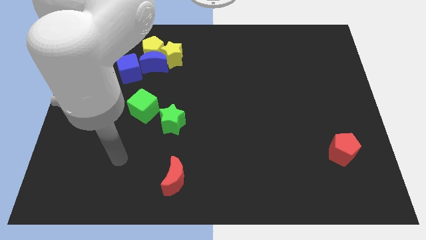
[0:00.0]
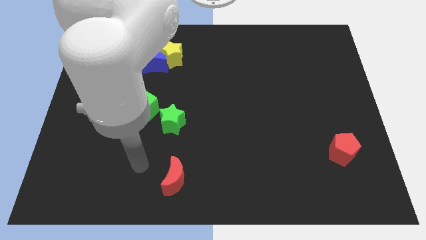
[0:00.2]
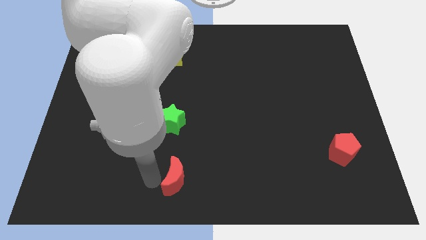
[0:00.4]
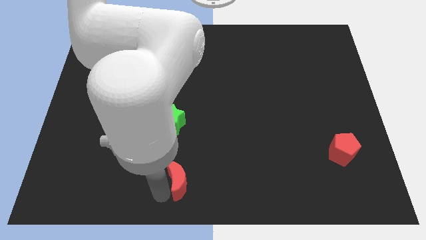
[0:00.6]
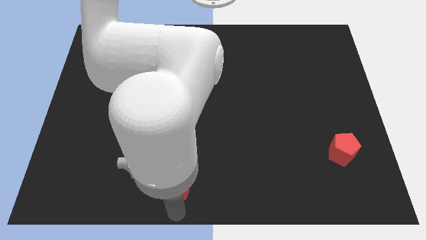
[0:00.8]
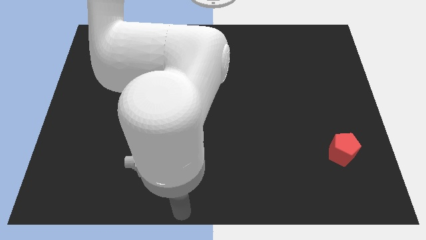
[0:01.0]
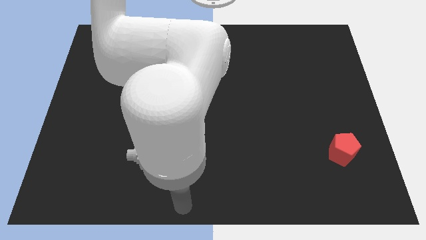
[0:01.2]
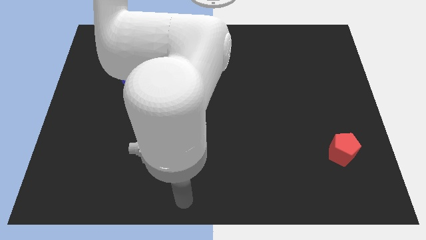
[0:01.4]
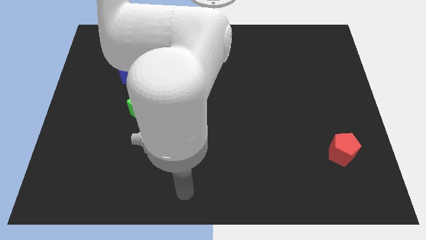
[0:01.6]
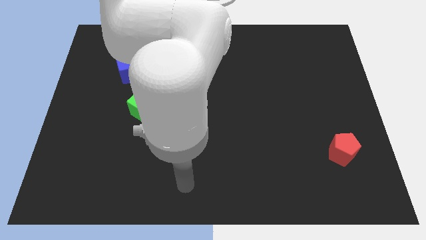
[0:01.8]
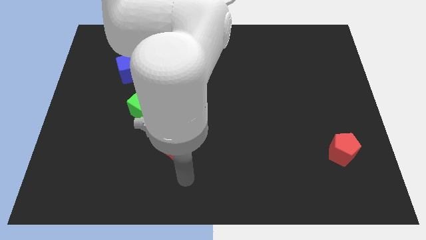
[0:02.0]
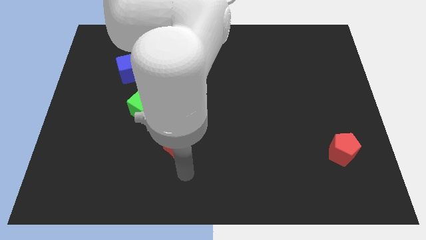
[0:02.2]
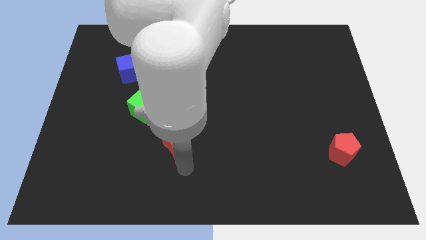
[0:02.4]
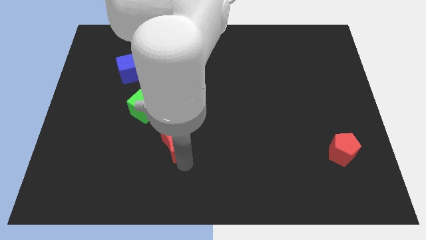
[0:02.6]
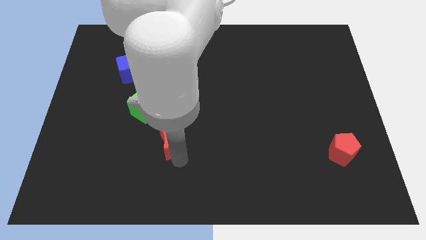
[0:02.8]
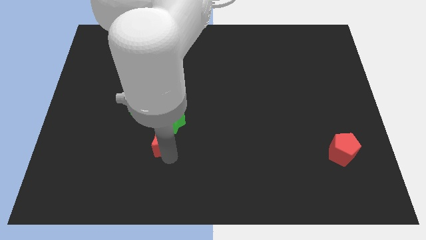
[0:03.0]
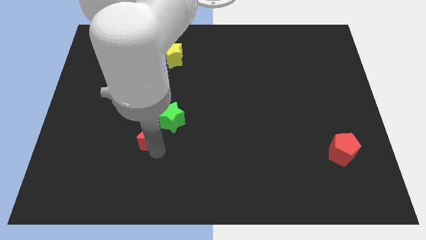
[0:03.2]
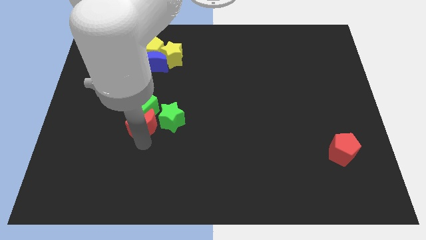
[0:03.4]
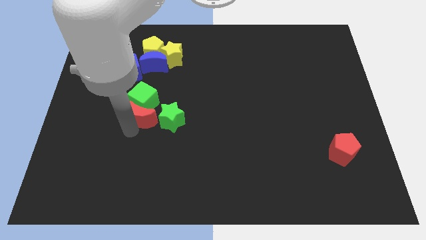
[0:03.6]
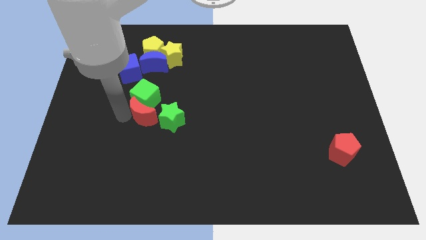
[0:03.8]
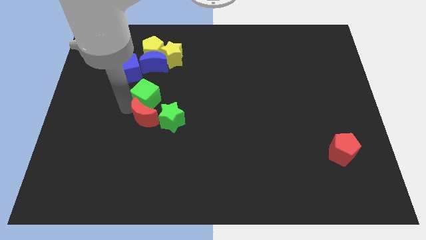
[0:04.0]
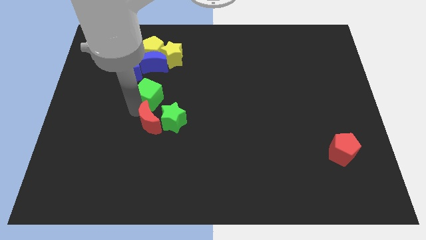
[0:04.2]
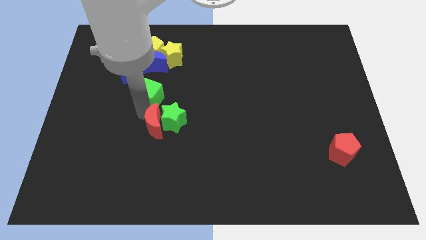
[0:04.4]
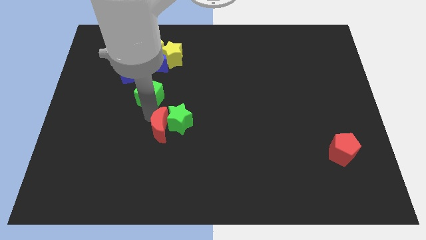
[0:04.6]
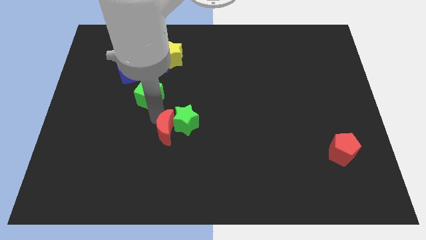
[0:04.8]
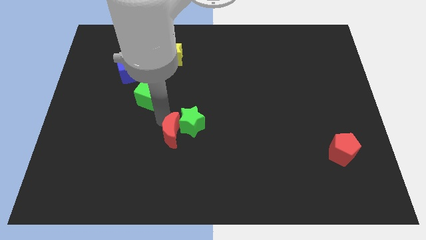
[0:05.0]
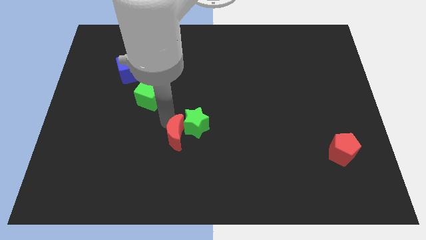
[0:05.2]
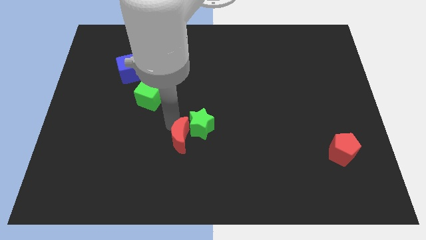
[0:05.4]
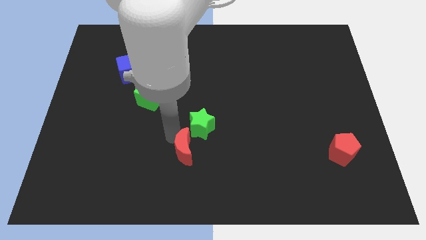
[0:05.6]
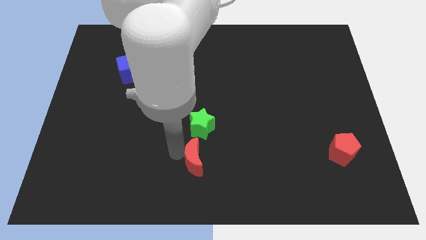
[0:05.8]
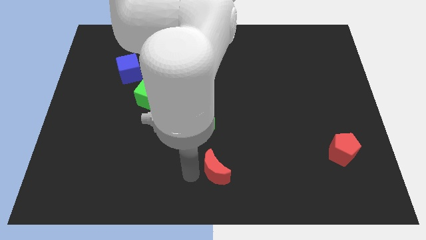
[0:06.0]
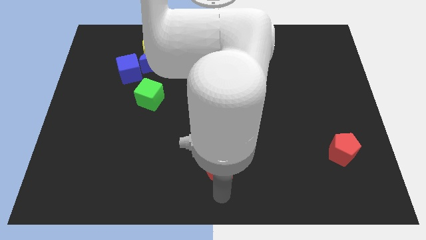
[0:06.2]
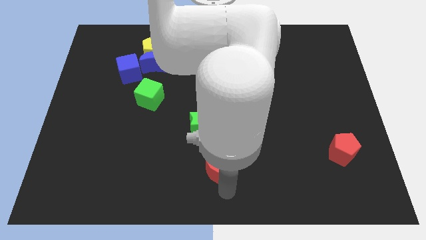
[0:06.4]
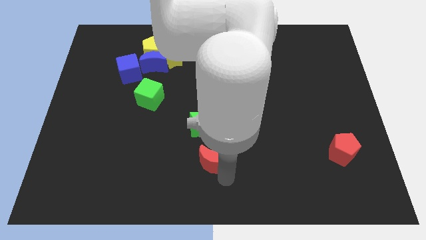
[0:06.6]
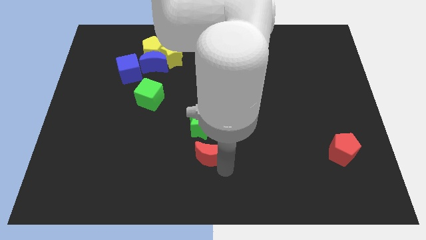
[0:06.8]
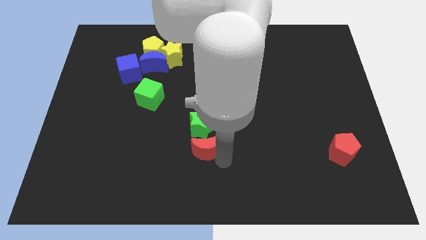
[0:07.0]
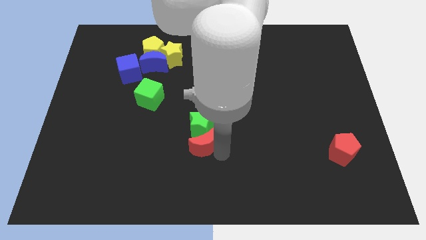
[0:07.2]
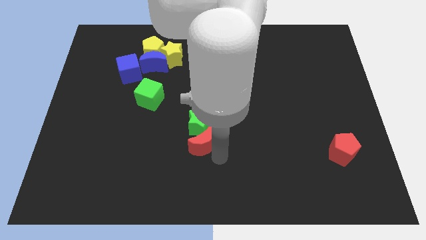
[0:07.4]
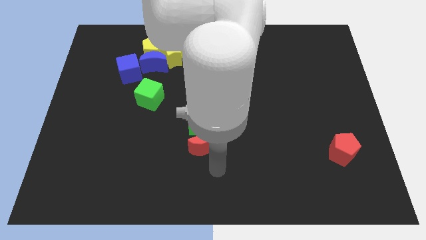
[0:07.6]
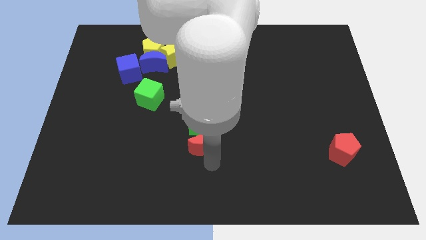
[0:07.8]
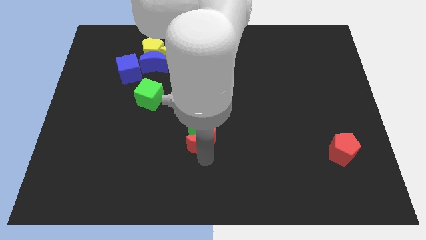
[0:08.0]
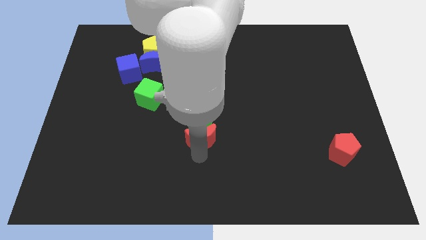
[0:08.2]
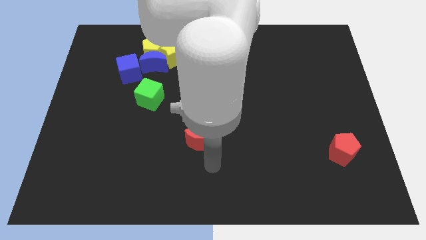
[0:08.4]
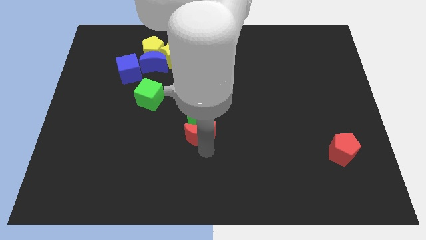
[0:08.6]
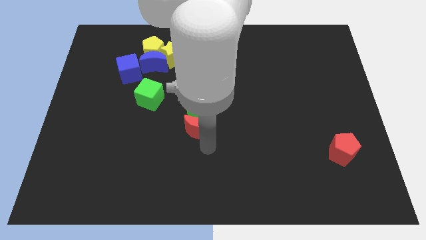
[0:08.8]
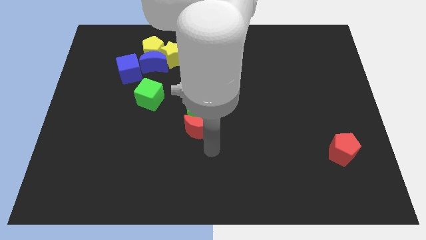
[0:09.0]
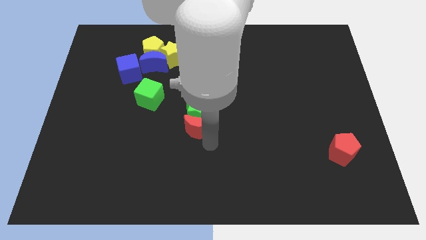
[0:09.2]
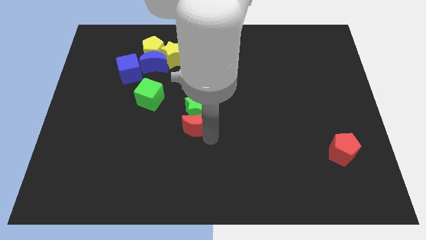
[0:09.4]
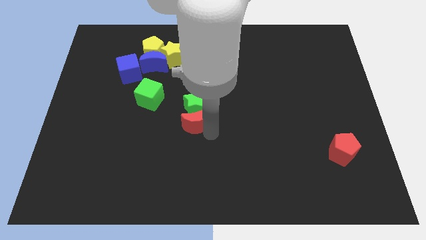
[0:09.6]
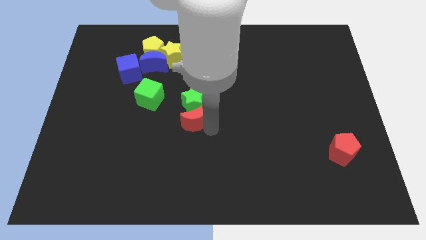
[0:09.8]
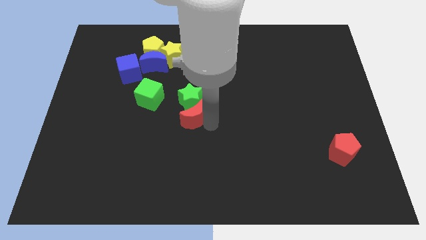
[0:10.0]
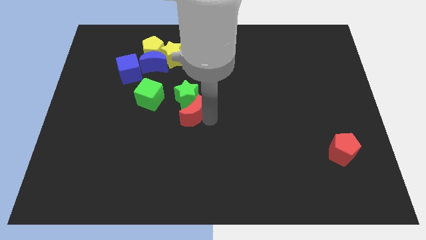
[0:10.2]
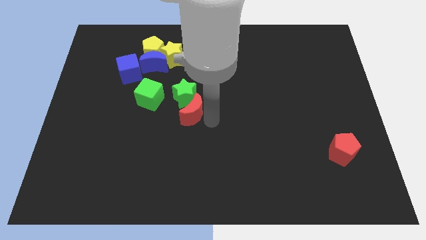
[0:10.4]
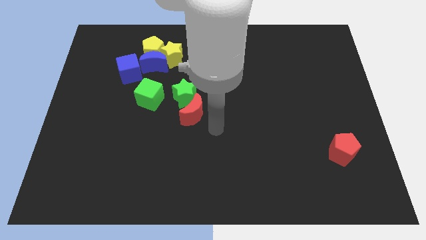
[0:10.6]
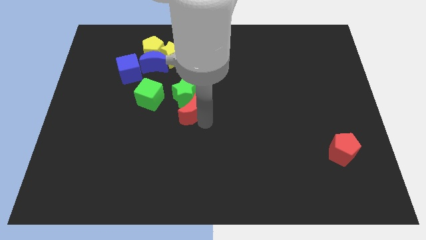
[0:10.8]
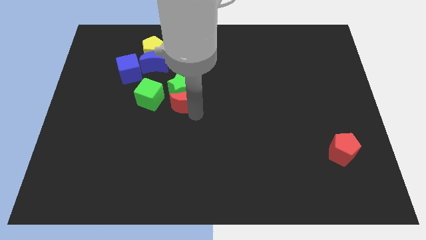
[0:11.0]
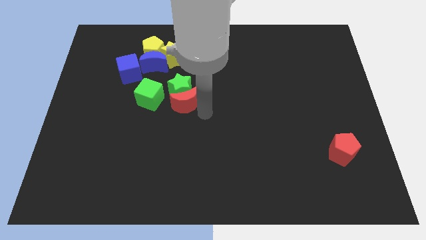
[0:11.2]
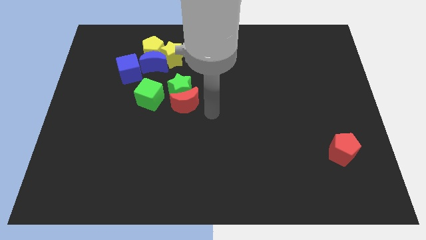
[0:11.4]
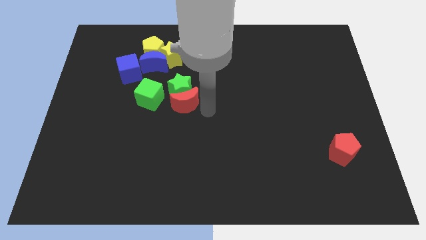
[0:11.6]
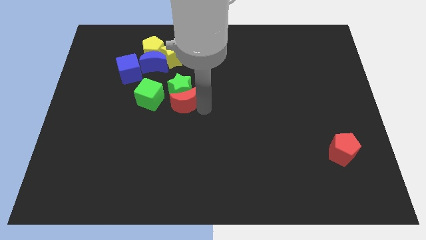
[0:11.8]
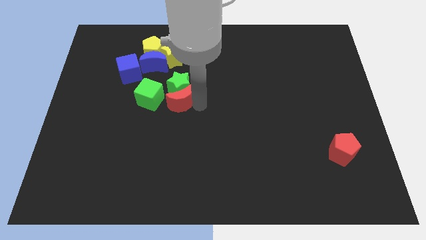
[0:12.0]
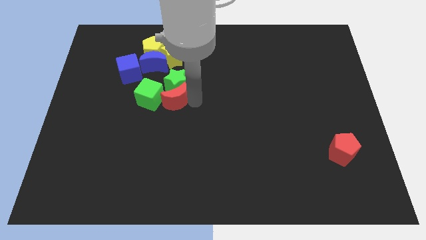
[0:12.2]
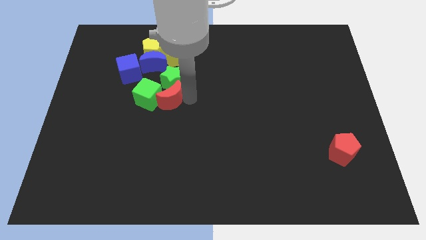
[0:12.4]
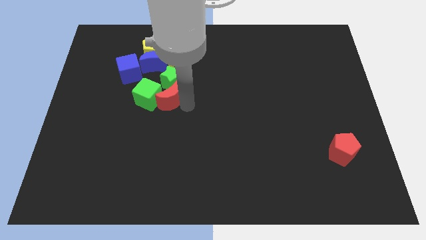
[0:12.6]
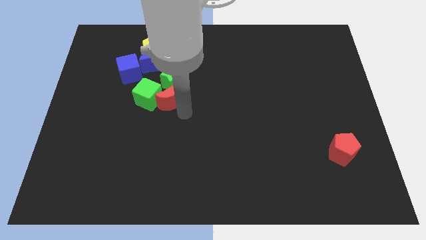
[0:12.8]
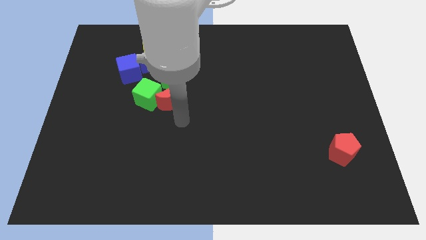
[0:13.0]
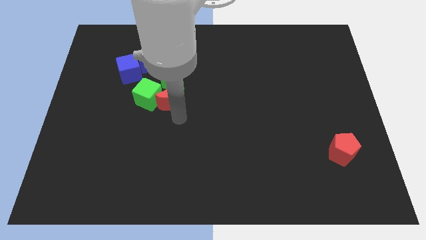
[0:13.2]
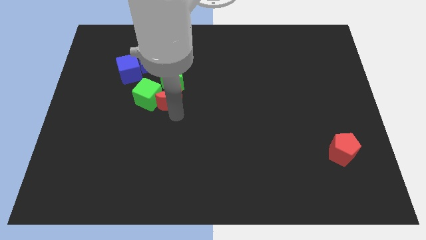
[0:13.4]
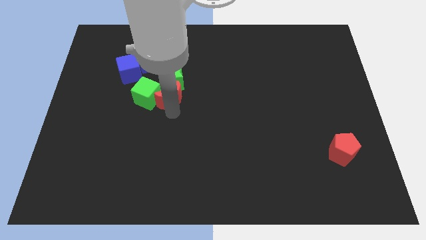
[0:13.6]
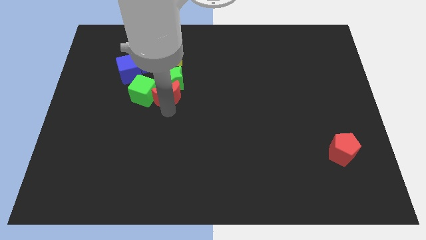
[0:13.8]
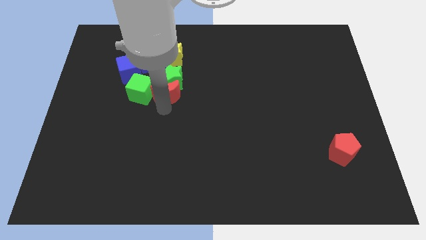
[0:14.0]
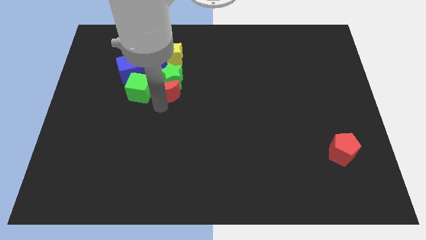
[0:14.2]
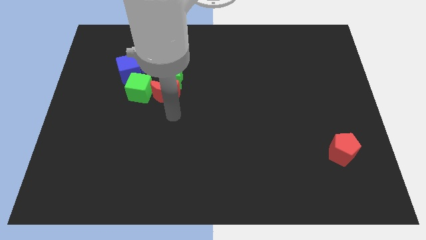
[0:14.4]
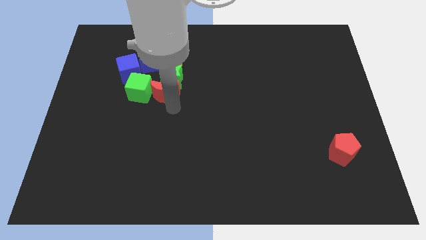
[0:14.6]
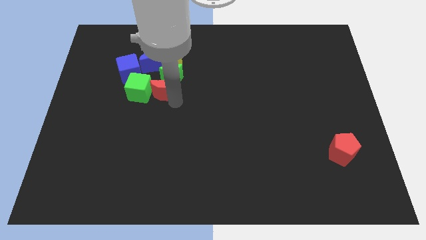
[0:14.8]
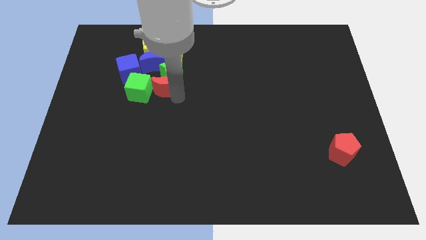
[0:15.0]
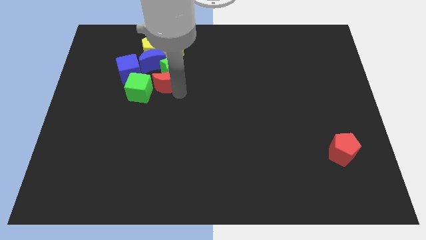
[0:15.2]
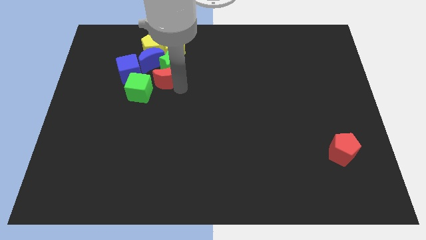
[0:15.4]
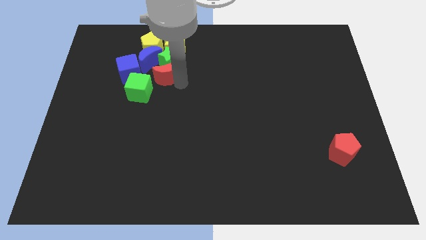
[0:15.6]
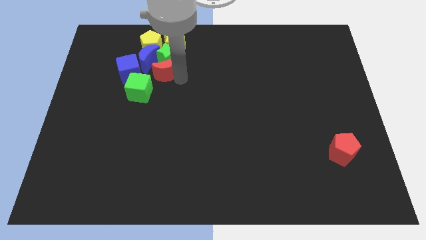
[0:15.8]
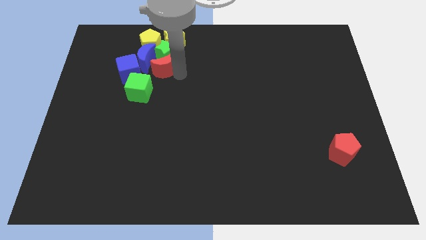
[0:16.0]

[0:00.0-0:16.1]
slide the red moon close to the blue moon
